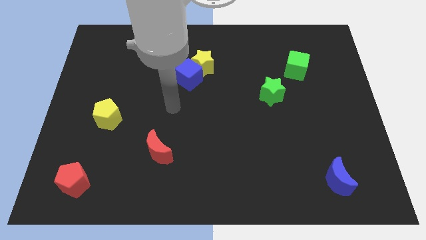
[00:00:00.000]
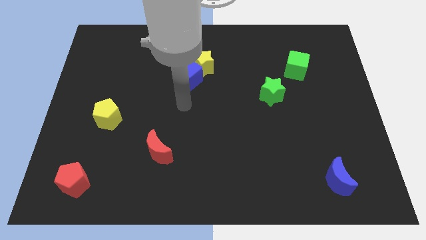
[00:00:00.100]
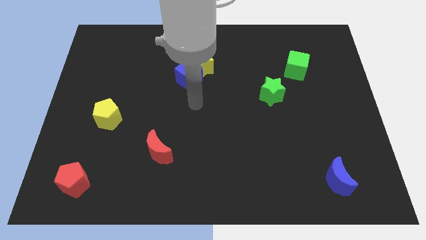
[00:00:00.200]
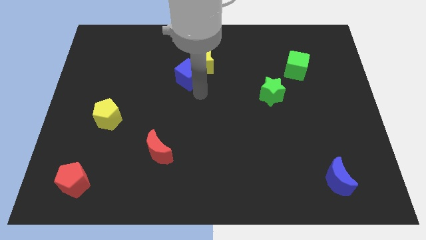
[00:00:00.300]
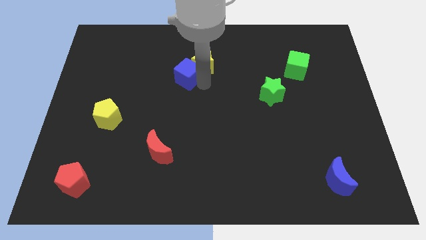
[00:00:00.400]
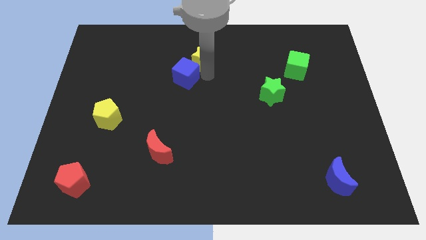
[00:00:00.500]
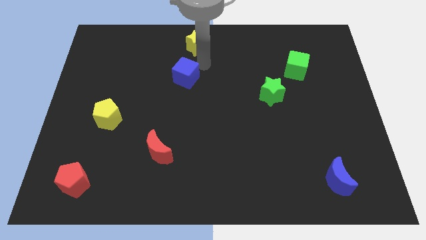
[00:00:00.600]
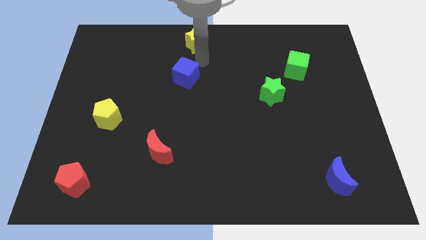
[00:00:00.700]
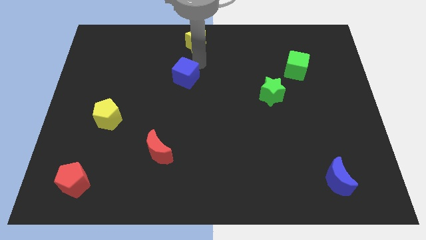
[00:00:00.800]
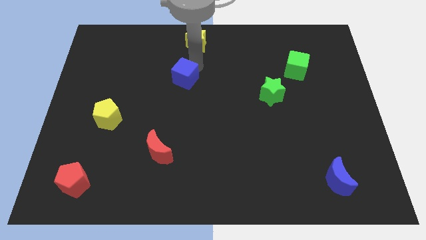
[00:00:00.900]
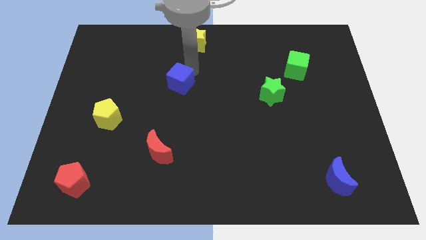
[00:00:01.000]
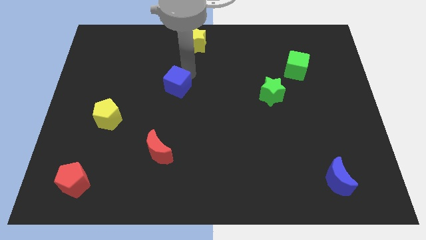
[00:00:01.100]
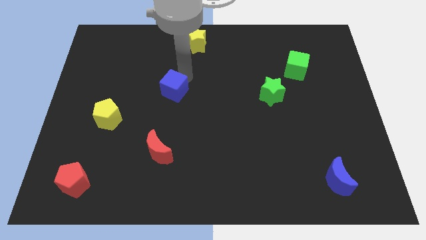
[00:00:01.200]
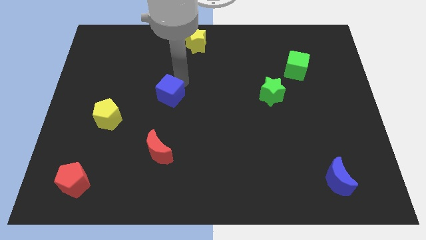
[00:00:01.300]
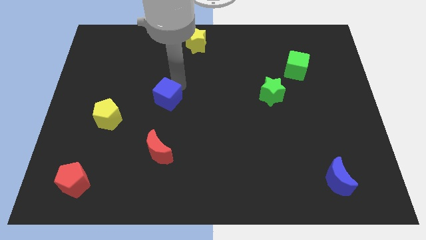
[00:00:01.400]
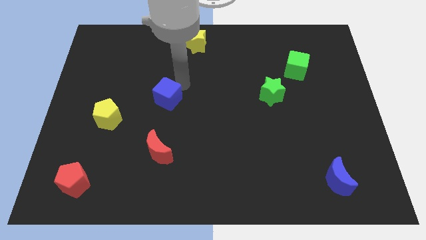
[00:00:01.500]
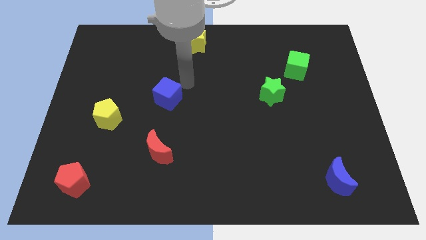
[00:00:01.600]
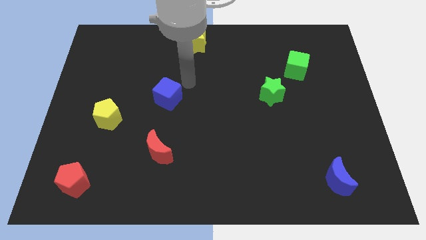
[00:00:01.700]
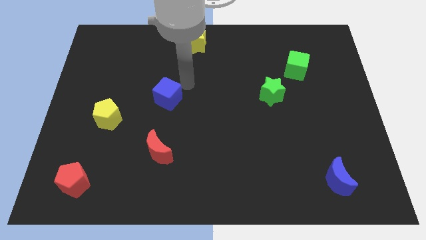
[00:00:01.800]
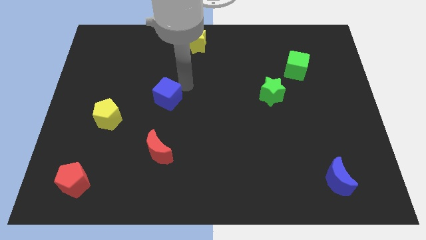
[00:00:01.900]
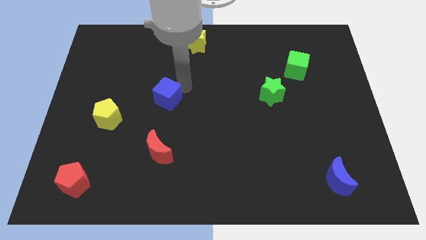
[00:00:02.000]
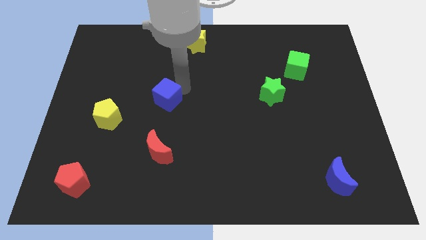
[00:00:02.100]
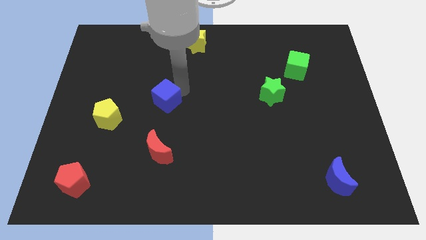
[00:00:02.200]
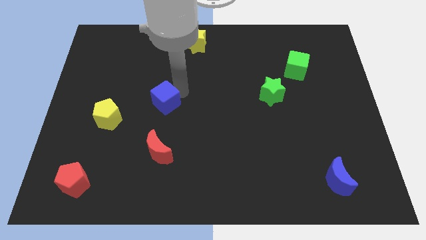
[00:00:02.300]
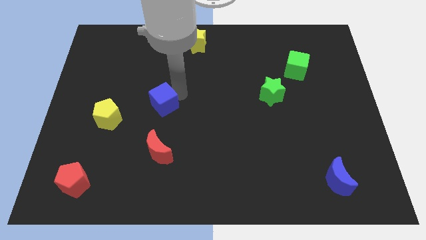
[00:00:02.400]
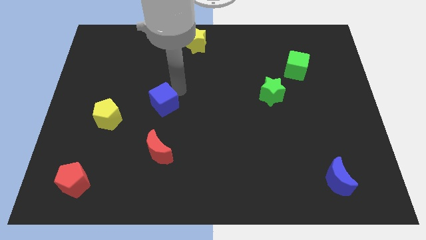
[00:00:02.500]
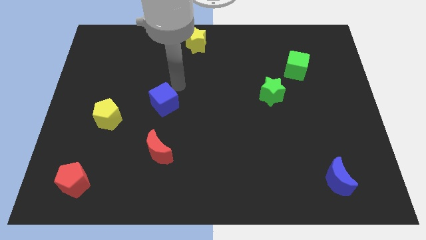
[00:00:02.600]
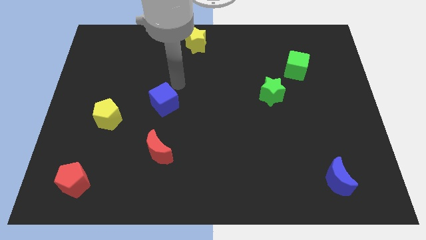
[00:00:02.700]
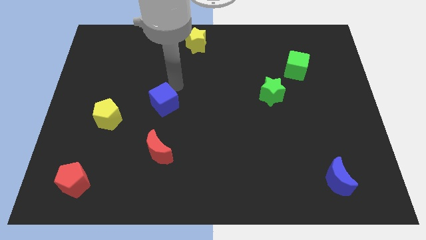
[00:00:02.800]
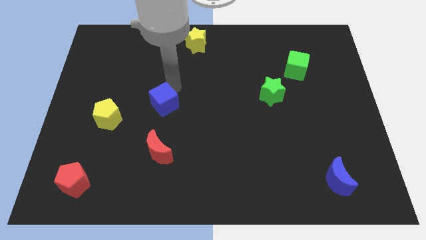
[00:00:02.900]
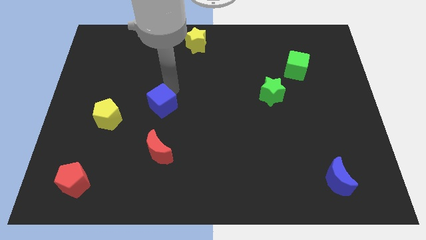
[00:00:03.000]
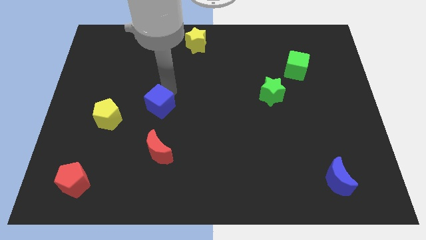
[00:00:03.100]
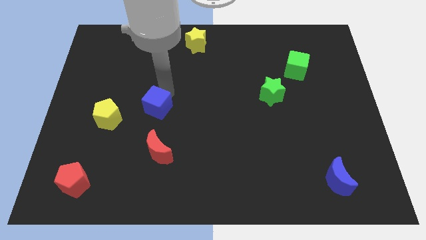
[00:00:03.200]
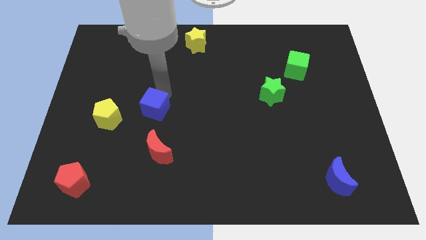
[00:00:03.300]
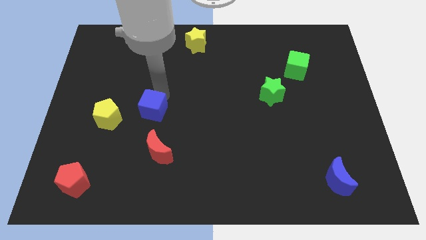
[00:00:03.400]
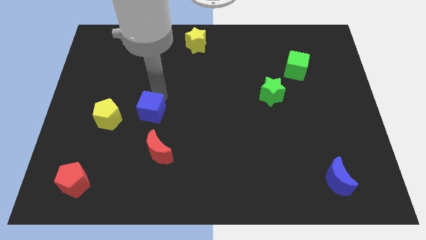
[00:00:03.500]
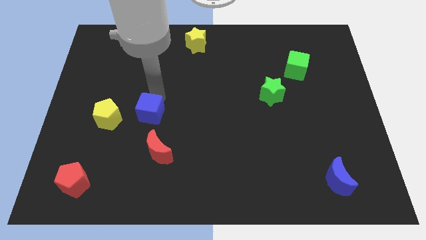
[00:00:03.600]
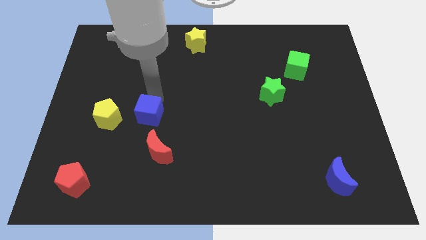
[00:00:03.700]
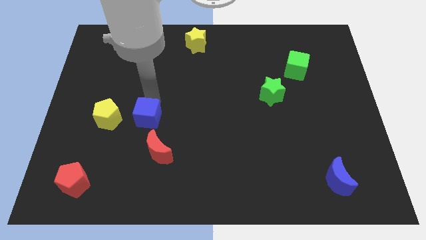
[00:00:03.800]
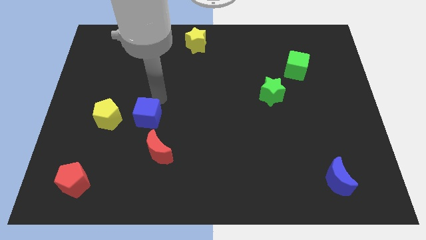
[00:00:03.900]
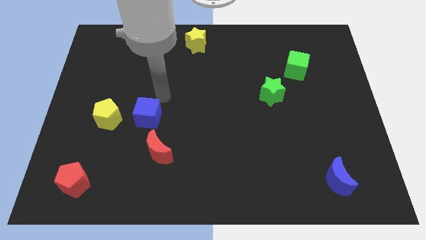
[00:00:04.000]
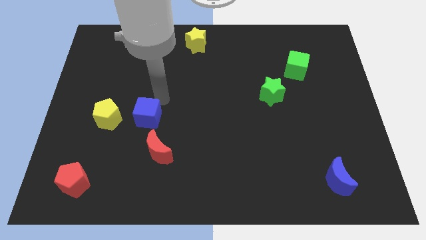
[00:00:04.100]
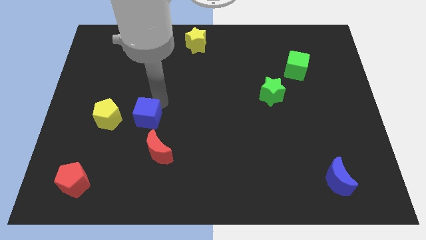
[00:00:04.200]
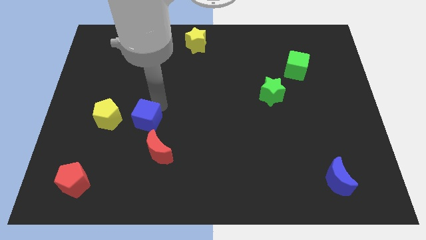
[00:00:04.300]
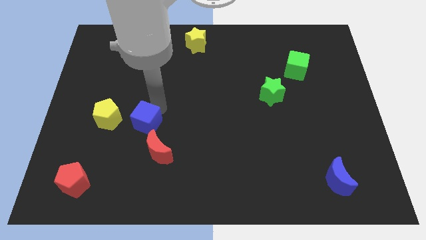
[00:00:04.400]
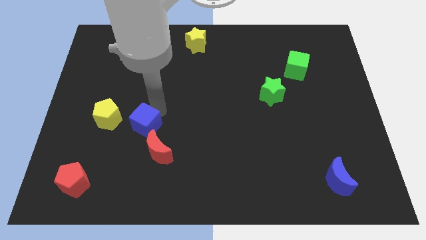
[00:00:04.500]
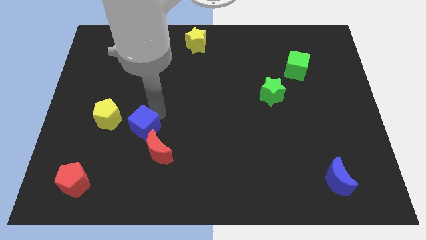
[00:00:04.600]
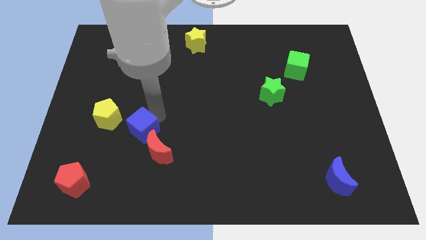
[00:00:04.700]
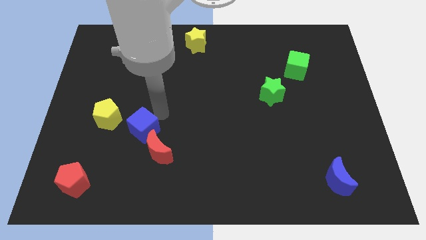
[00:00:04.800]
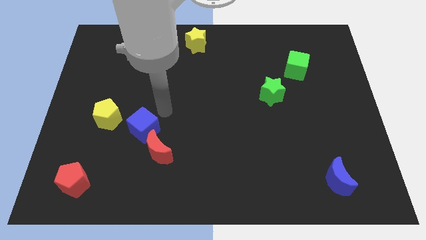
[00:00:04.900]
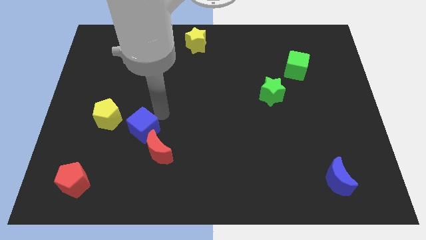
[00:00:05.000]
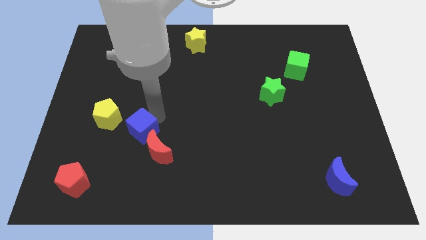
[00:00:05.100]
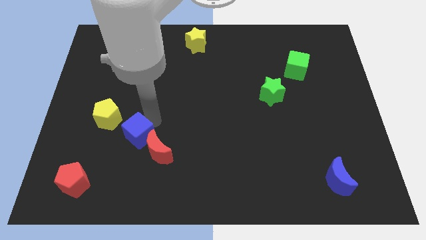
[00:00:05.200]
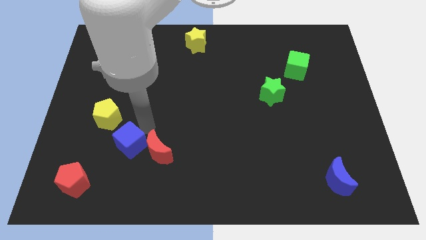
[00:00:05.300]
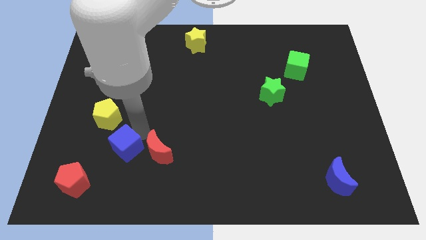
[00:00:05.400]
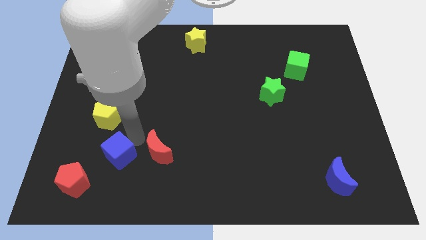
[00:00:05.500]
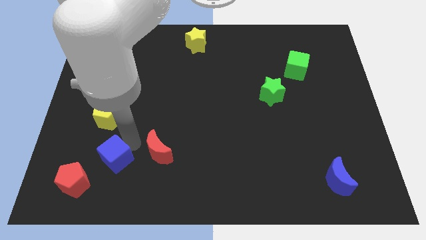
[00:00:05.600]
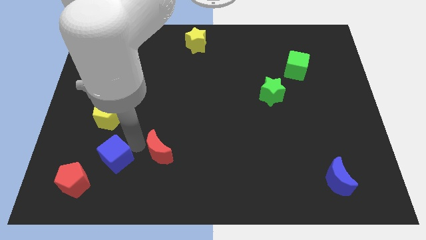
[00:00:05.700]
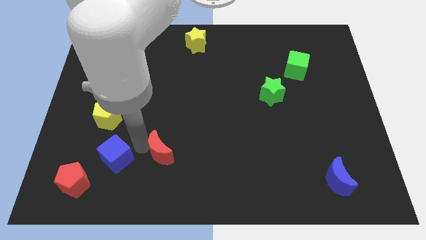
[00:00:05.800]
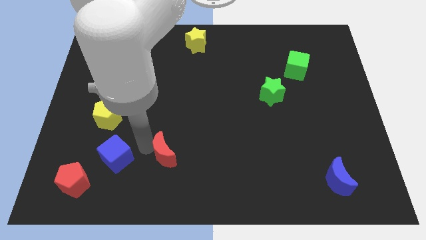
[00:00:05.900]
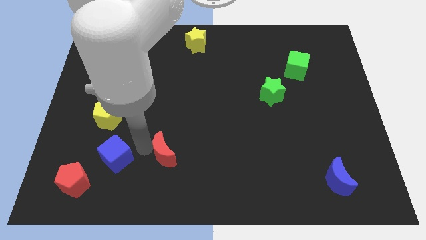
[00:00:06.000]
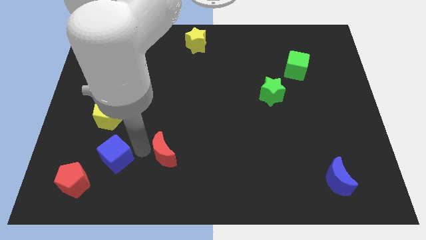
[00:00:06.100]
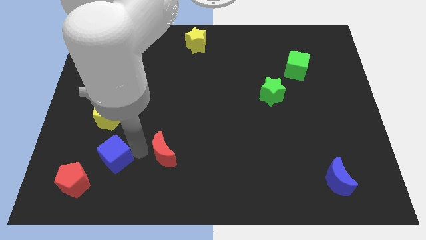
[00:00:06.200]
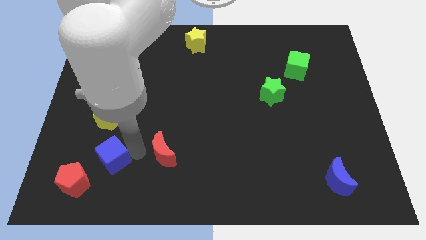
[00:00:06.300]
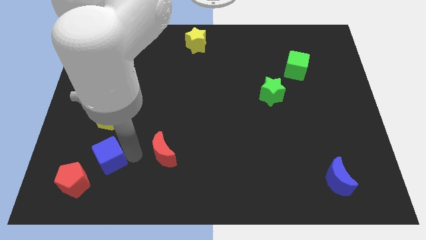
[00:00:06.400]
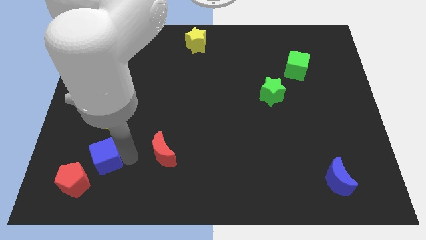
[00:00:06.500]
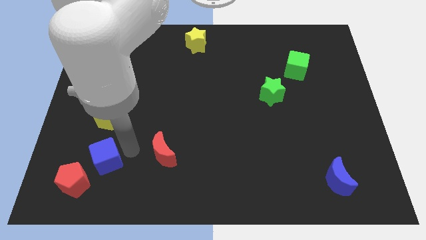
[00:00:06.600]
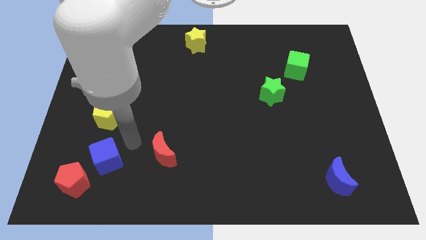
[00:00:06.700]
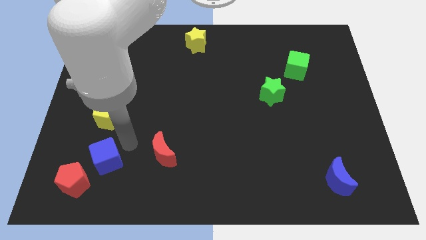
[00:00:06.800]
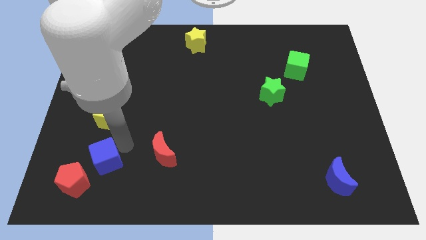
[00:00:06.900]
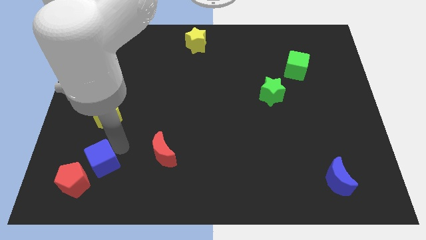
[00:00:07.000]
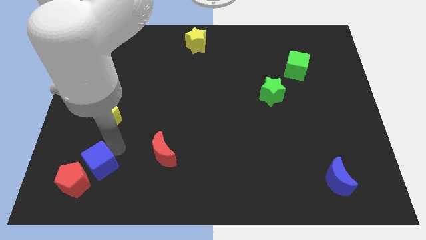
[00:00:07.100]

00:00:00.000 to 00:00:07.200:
slide the blue cube close to the red pentagon
